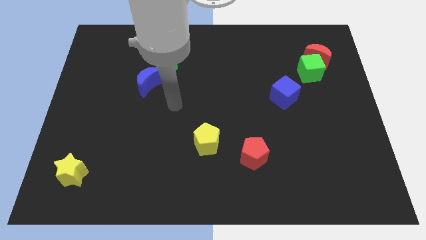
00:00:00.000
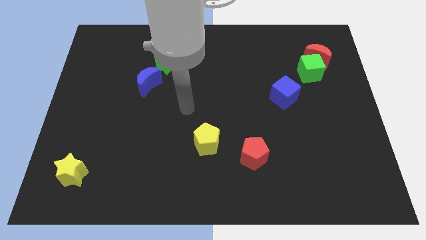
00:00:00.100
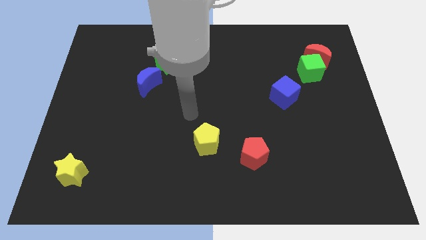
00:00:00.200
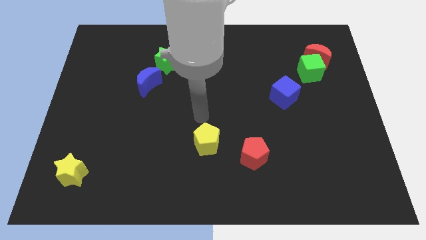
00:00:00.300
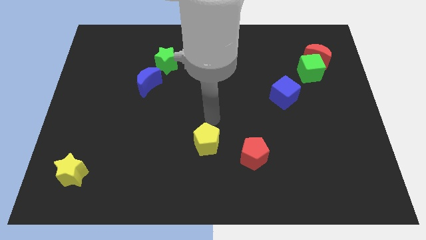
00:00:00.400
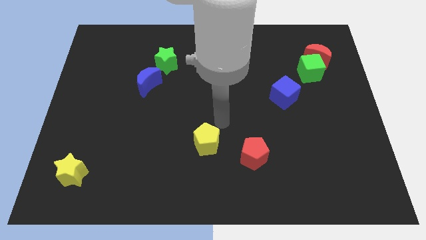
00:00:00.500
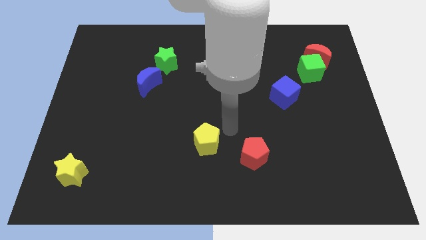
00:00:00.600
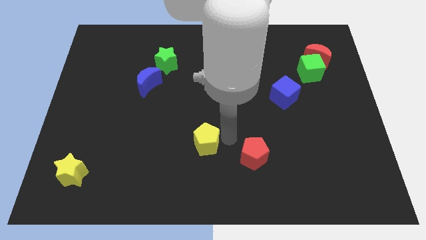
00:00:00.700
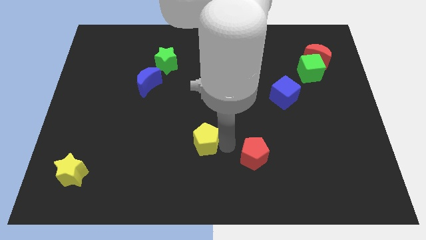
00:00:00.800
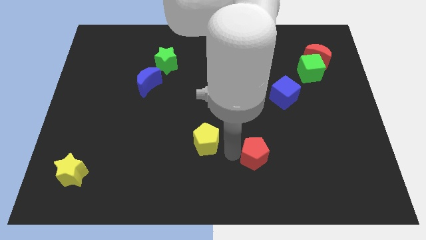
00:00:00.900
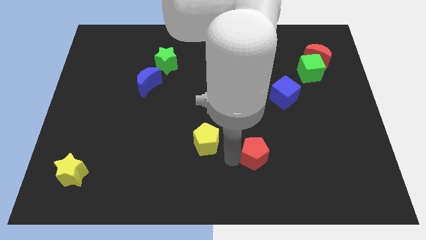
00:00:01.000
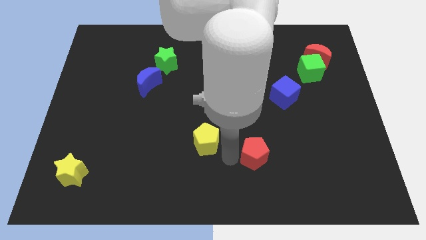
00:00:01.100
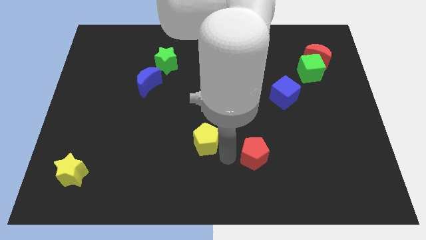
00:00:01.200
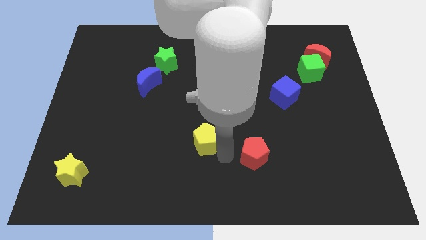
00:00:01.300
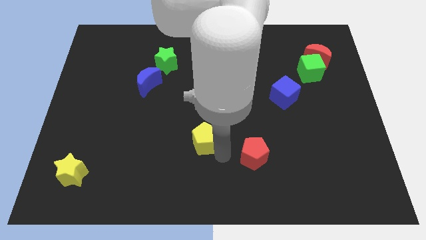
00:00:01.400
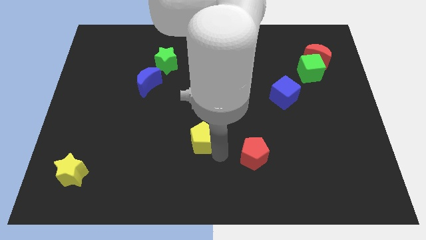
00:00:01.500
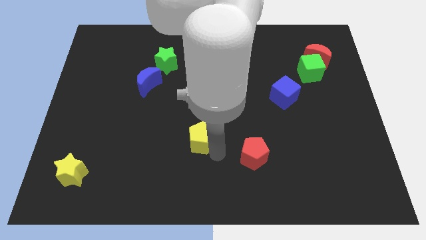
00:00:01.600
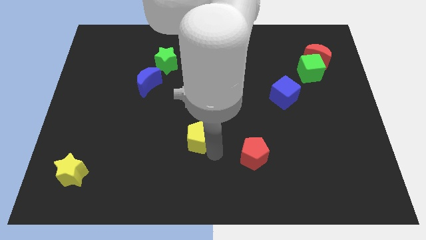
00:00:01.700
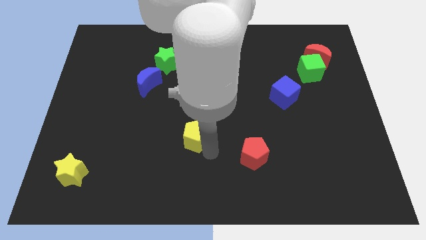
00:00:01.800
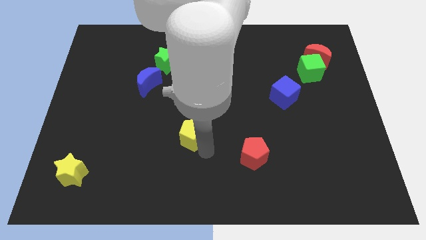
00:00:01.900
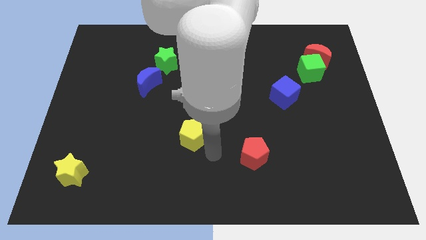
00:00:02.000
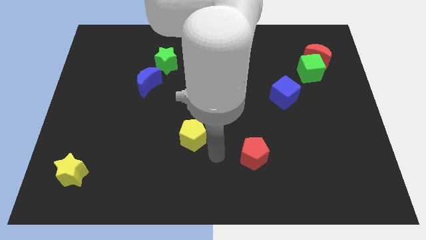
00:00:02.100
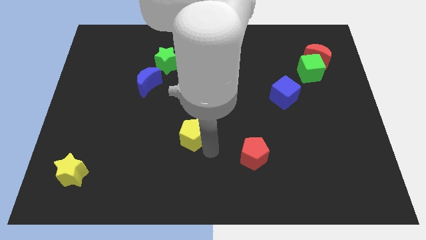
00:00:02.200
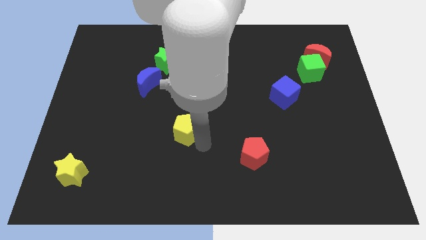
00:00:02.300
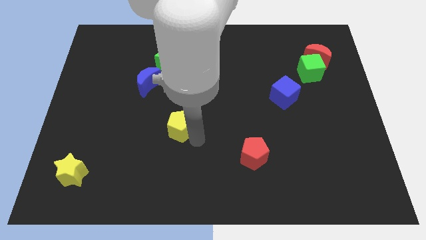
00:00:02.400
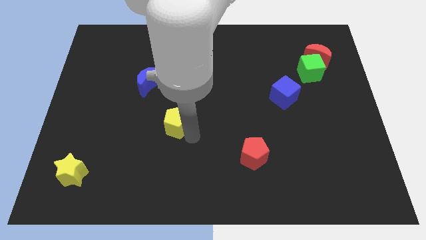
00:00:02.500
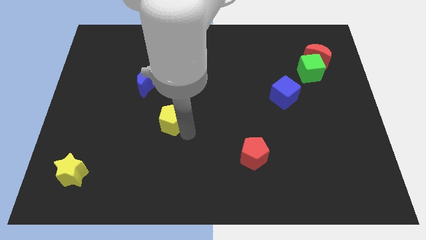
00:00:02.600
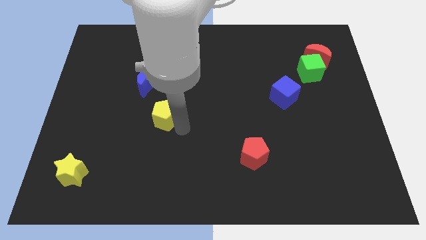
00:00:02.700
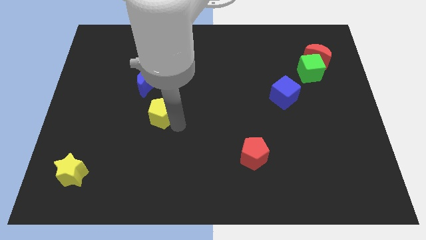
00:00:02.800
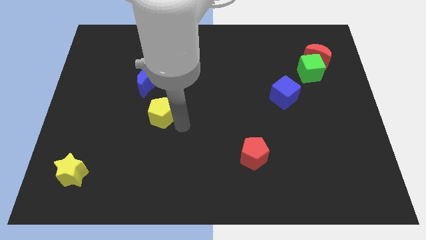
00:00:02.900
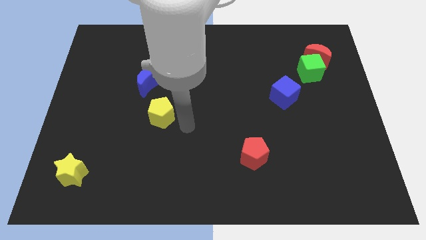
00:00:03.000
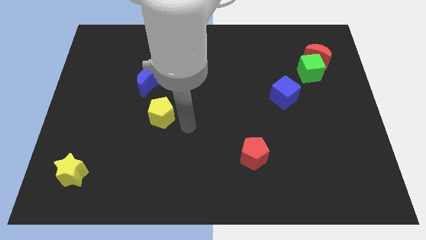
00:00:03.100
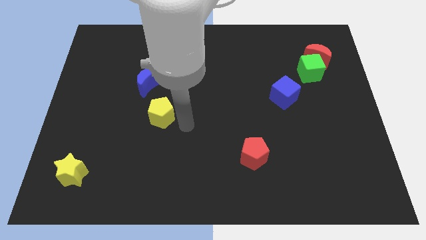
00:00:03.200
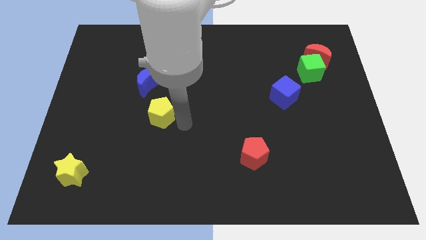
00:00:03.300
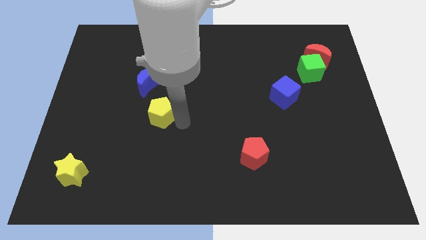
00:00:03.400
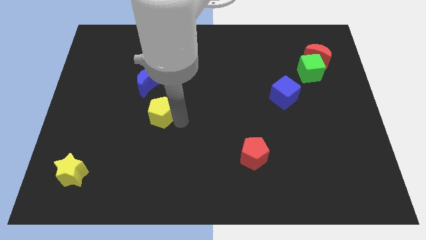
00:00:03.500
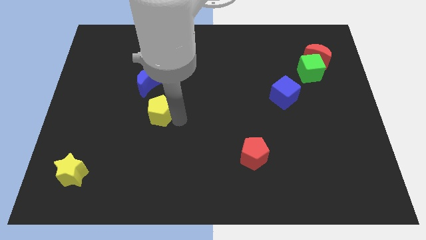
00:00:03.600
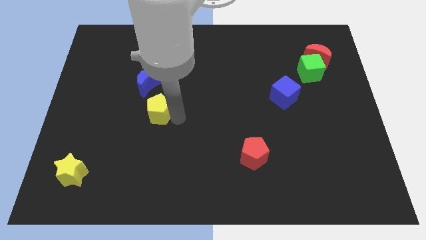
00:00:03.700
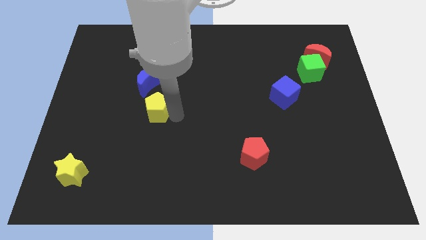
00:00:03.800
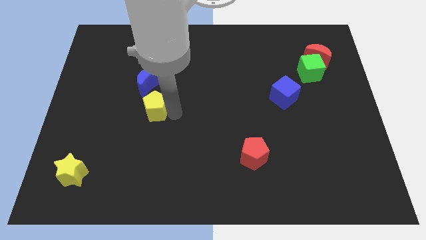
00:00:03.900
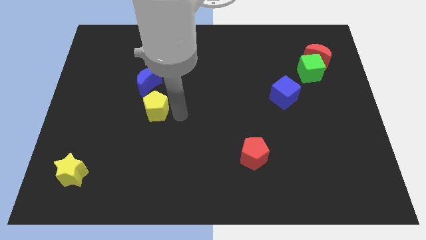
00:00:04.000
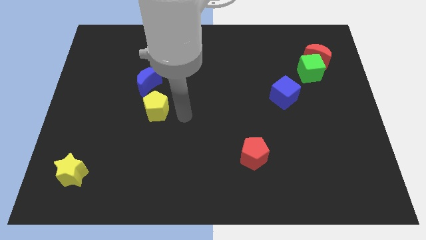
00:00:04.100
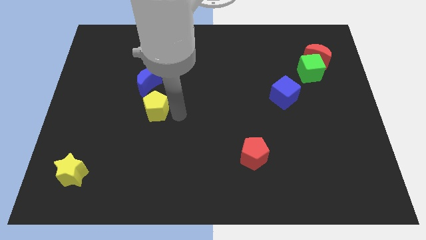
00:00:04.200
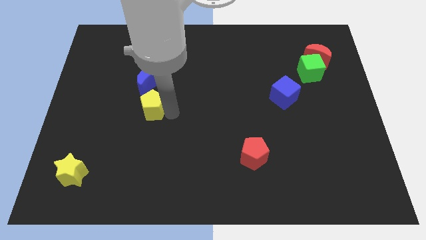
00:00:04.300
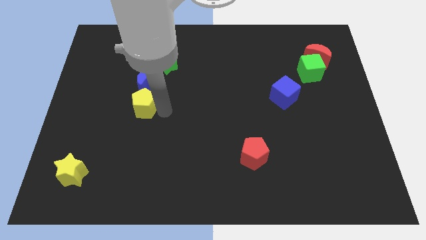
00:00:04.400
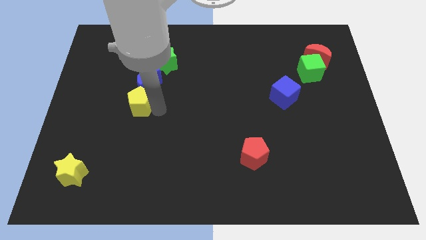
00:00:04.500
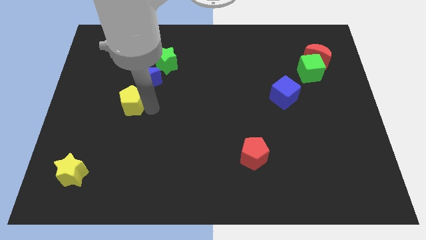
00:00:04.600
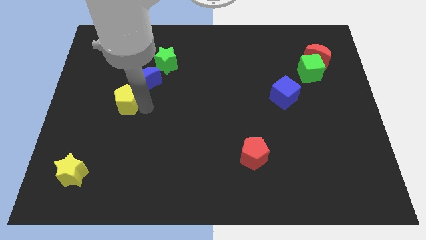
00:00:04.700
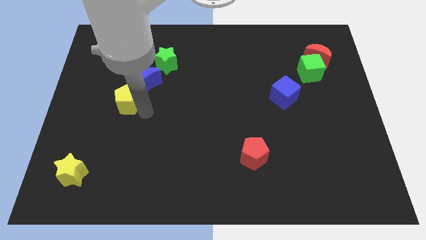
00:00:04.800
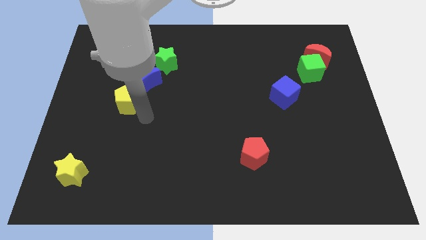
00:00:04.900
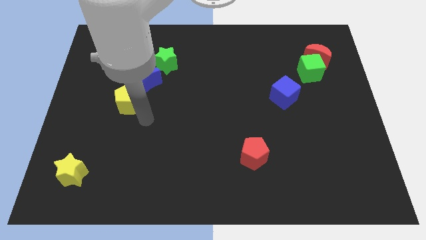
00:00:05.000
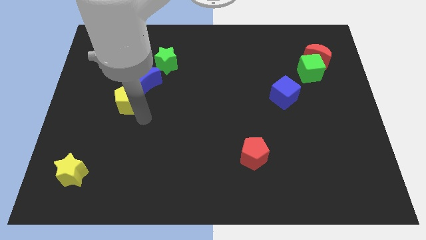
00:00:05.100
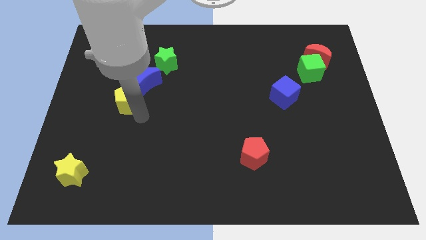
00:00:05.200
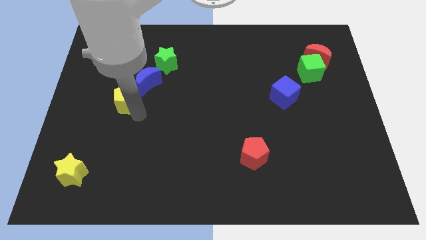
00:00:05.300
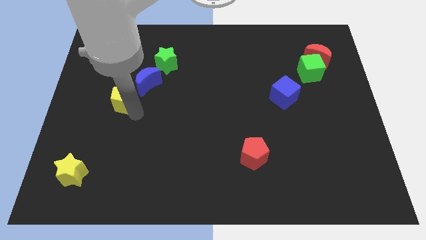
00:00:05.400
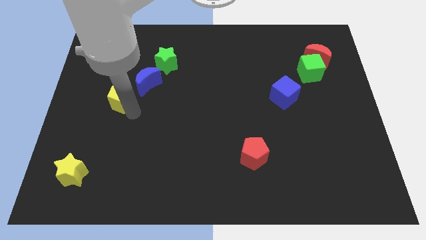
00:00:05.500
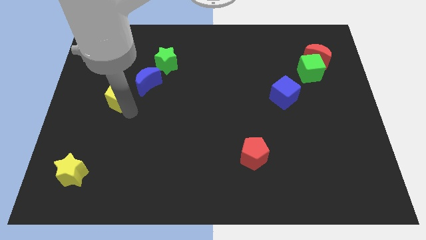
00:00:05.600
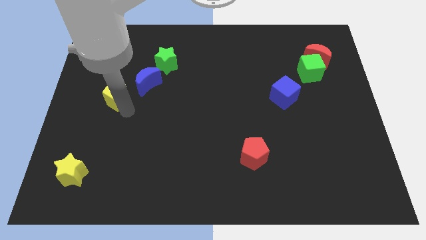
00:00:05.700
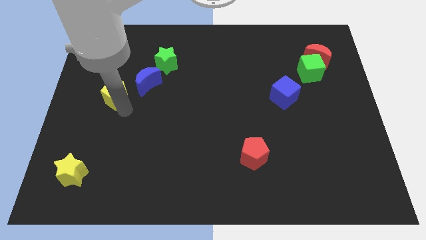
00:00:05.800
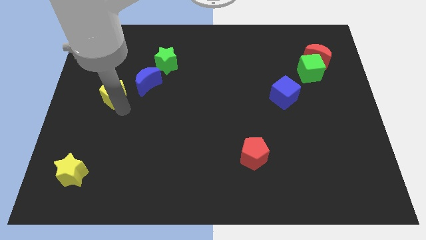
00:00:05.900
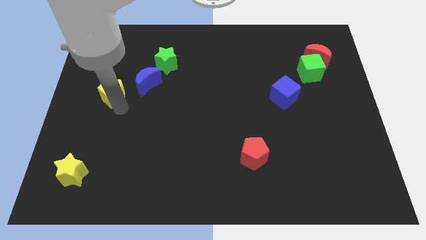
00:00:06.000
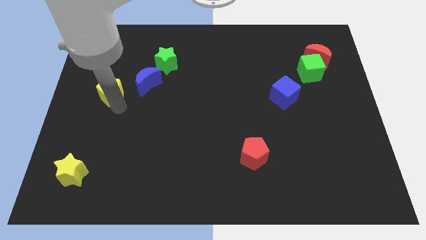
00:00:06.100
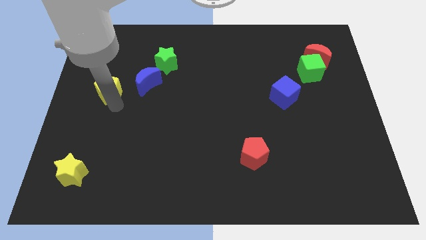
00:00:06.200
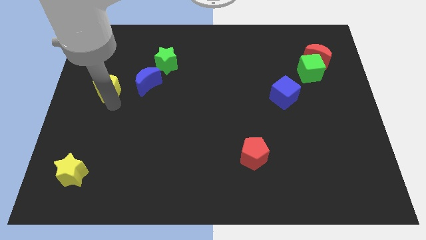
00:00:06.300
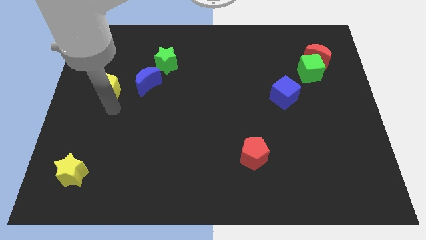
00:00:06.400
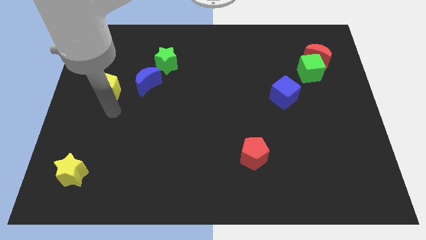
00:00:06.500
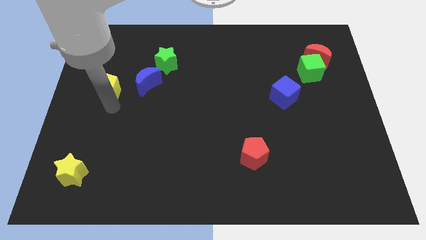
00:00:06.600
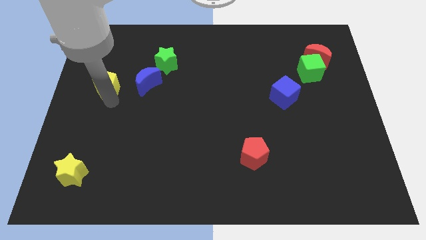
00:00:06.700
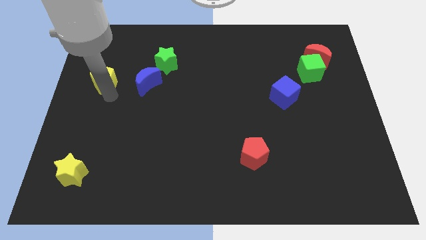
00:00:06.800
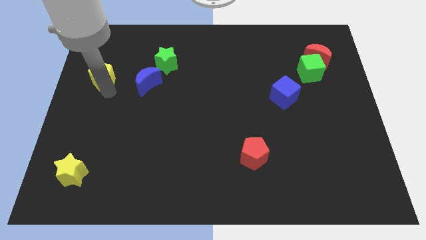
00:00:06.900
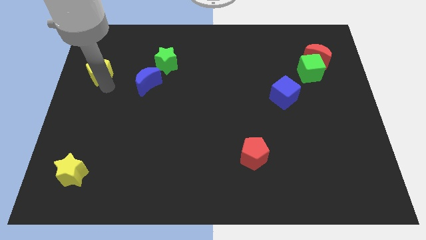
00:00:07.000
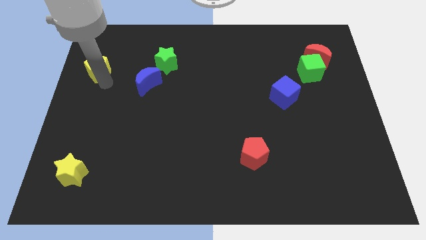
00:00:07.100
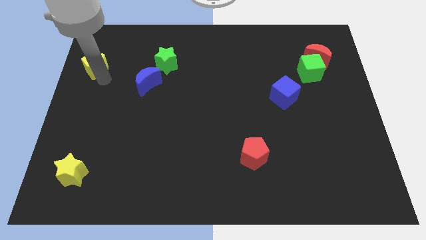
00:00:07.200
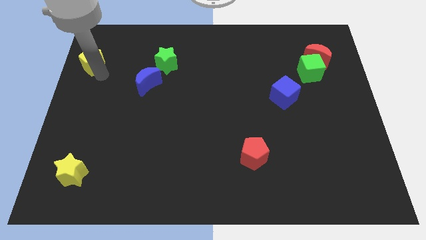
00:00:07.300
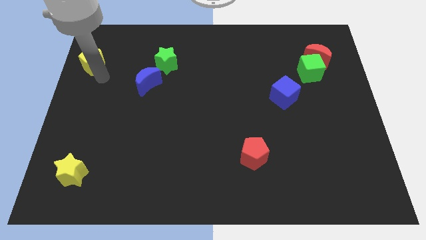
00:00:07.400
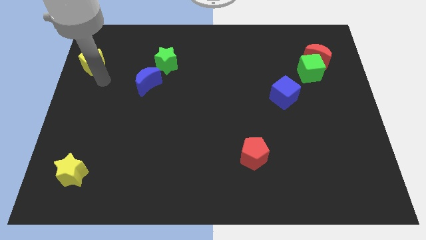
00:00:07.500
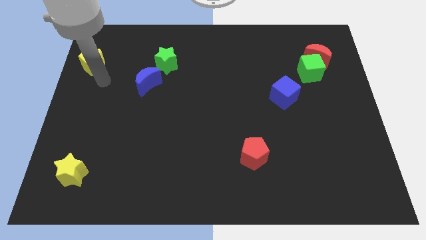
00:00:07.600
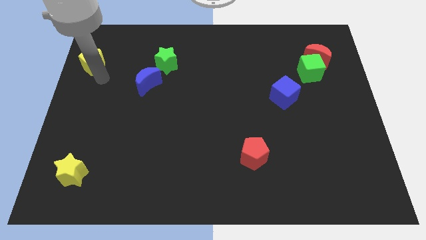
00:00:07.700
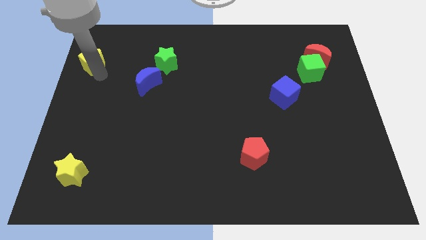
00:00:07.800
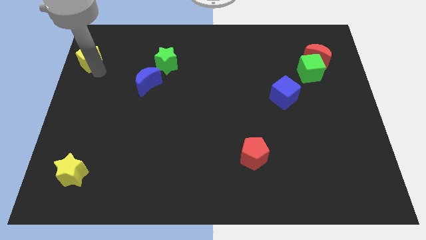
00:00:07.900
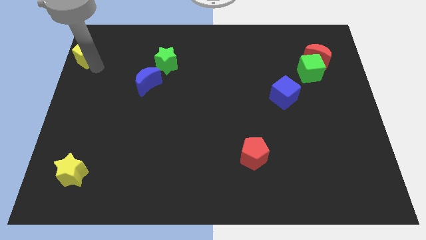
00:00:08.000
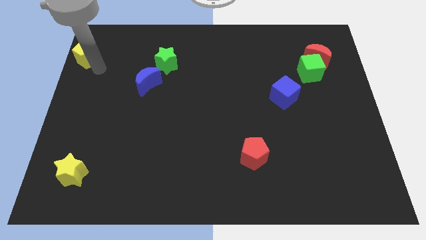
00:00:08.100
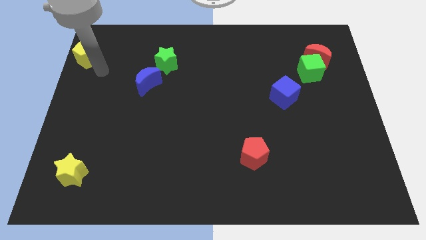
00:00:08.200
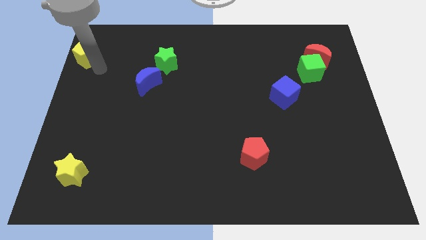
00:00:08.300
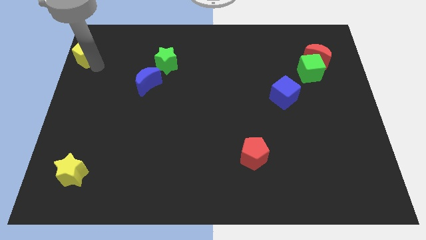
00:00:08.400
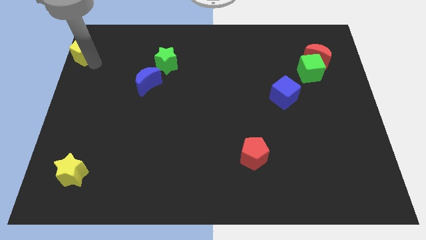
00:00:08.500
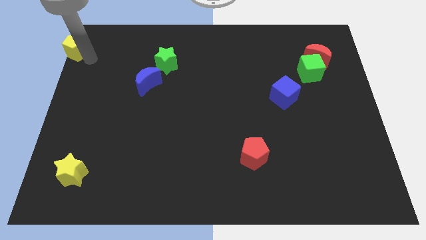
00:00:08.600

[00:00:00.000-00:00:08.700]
push the yellow pentagon to the top left corner
